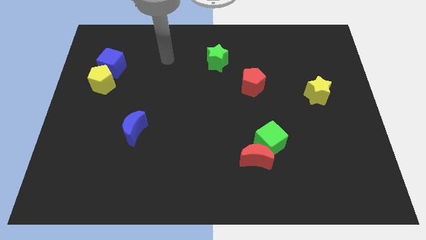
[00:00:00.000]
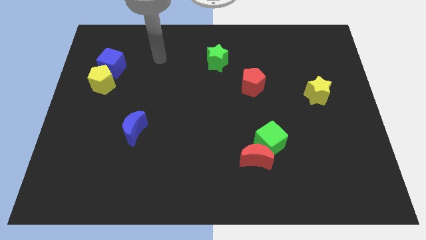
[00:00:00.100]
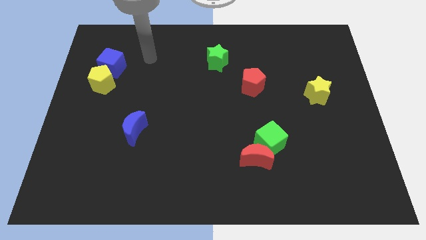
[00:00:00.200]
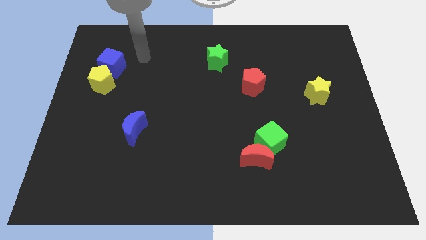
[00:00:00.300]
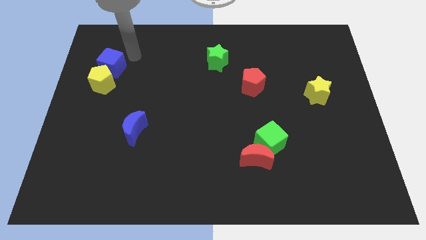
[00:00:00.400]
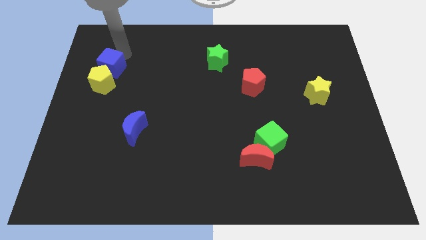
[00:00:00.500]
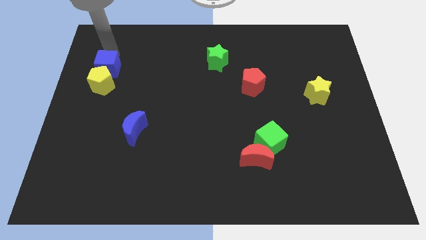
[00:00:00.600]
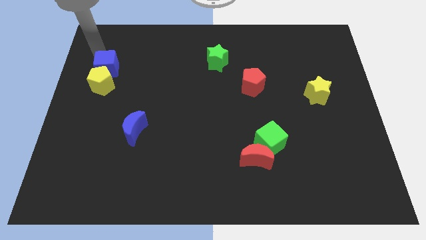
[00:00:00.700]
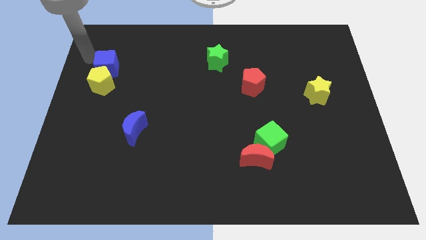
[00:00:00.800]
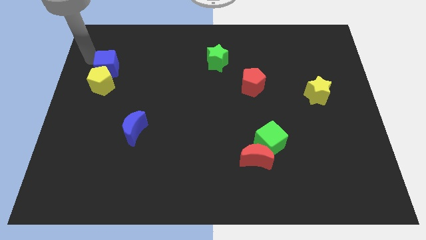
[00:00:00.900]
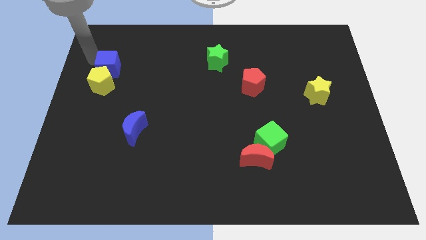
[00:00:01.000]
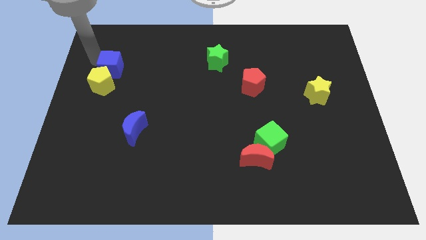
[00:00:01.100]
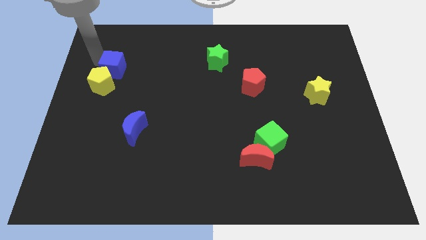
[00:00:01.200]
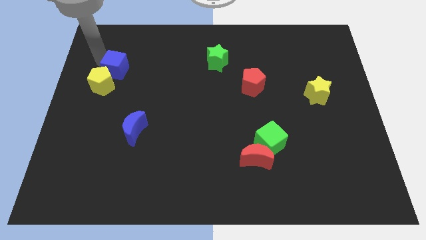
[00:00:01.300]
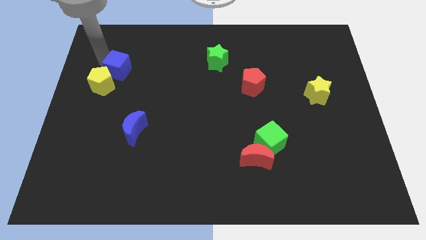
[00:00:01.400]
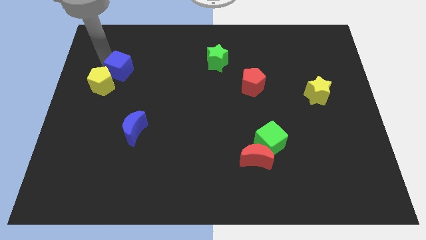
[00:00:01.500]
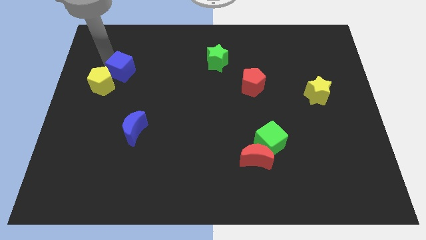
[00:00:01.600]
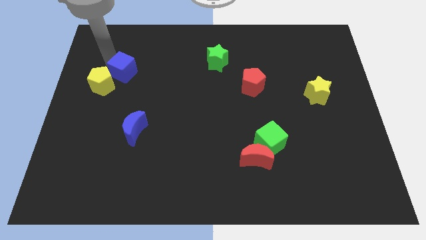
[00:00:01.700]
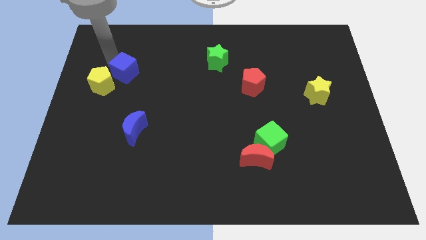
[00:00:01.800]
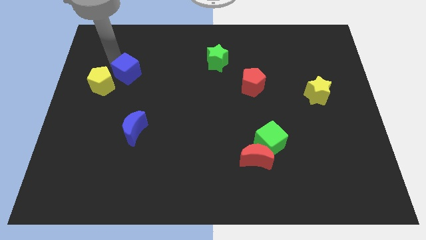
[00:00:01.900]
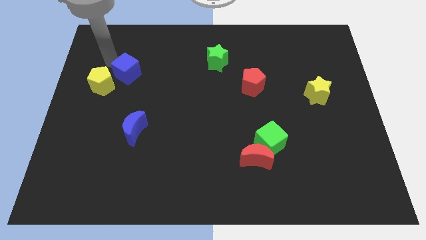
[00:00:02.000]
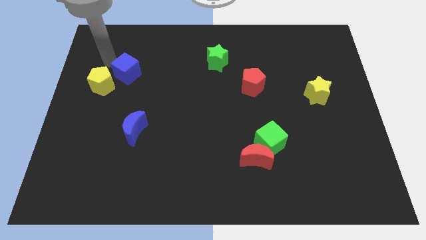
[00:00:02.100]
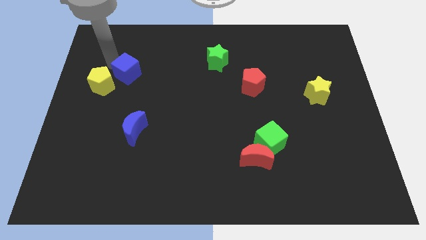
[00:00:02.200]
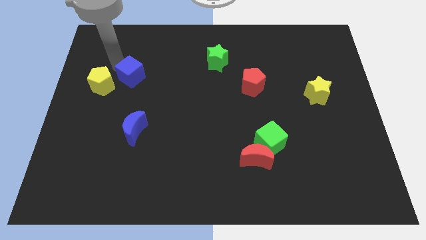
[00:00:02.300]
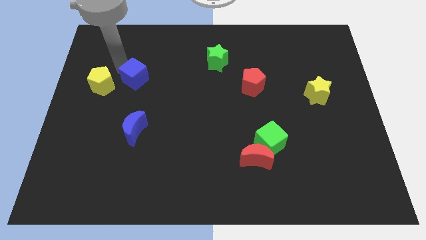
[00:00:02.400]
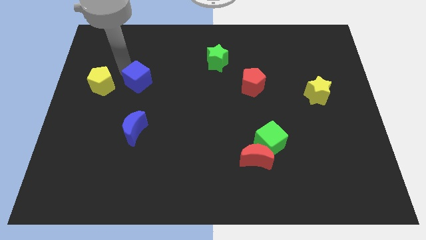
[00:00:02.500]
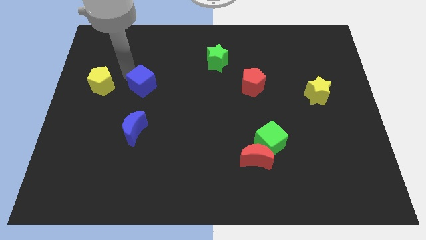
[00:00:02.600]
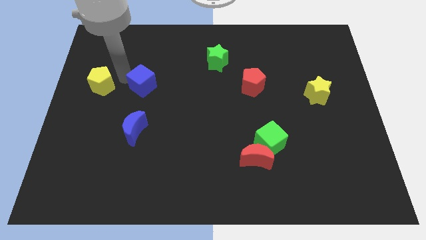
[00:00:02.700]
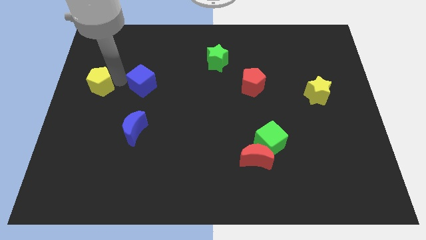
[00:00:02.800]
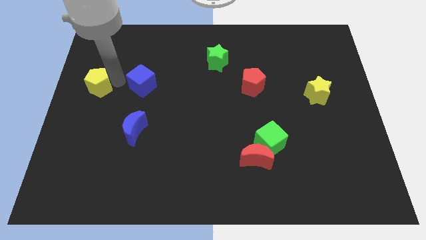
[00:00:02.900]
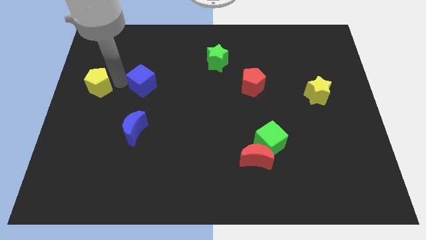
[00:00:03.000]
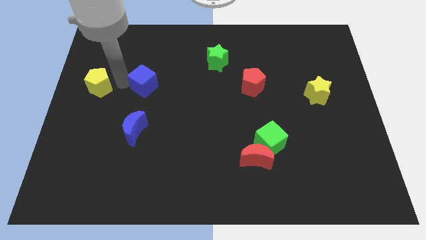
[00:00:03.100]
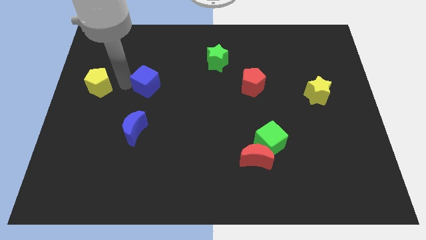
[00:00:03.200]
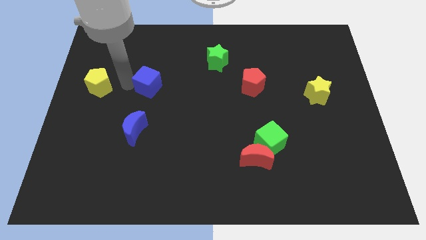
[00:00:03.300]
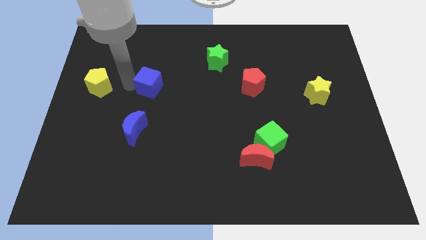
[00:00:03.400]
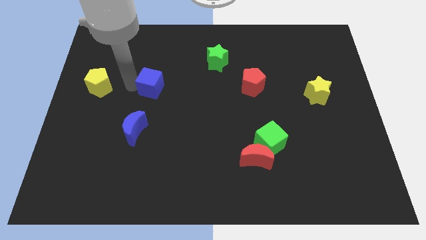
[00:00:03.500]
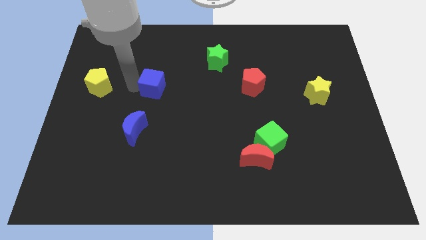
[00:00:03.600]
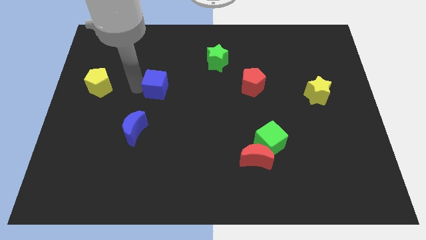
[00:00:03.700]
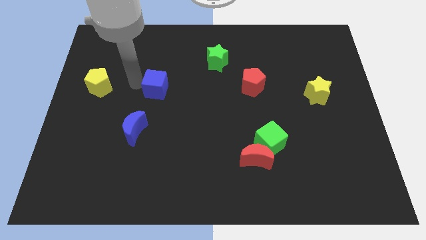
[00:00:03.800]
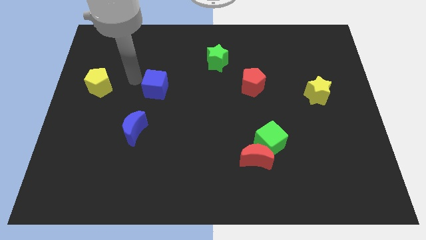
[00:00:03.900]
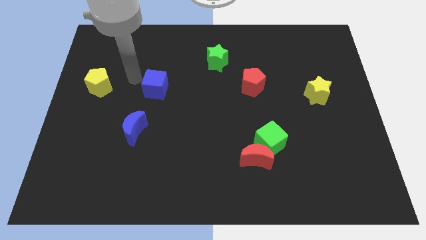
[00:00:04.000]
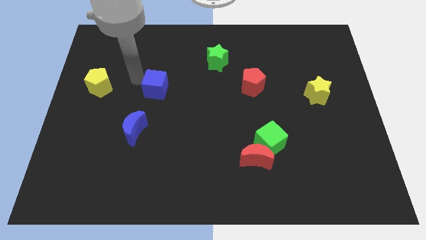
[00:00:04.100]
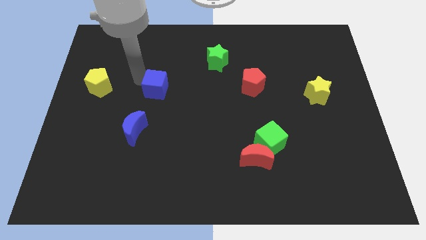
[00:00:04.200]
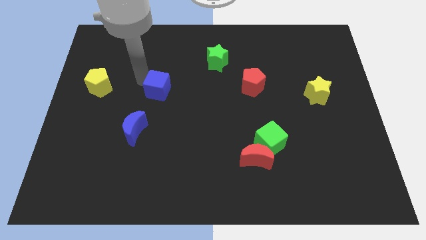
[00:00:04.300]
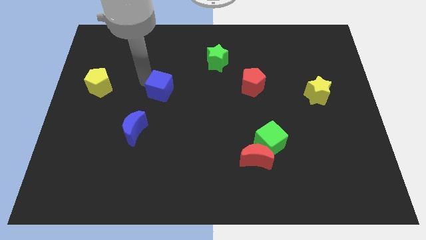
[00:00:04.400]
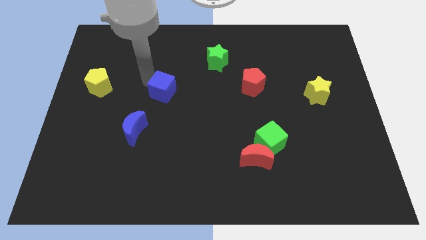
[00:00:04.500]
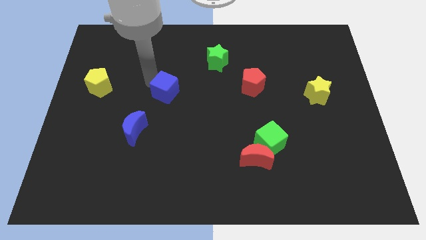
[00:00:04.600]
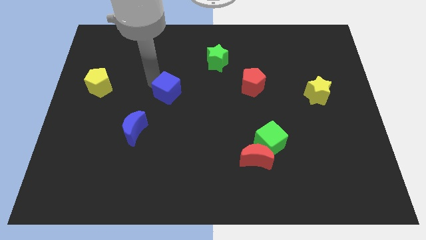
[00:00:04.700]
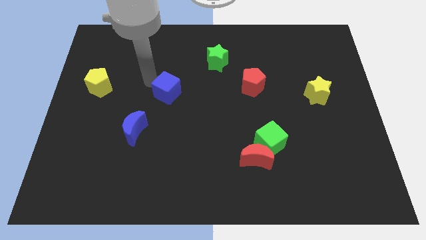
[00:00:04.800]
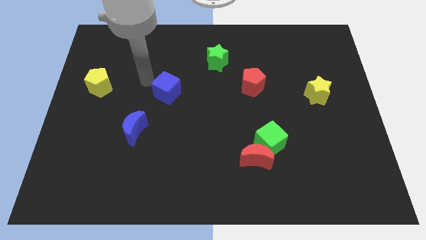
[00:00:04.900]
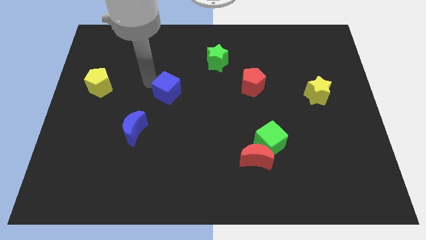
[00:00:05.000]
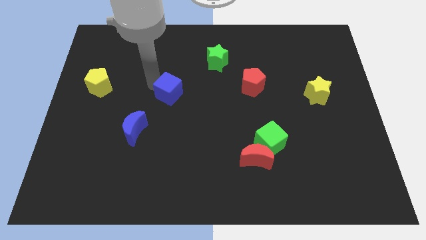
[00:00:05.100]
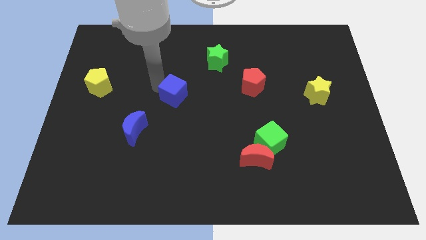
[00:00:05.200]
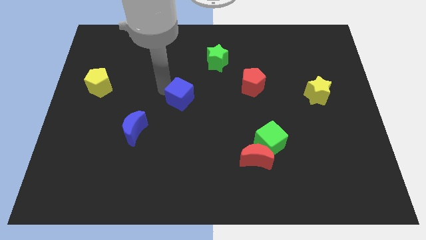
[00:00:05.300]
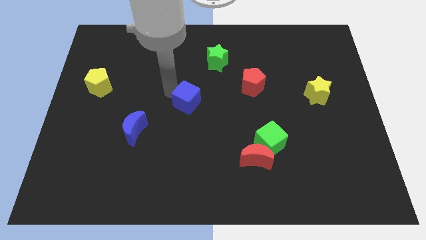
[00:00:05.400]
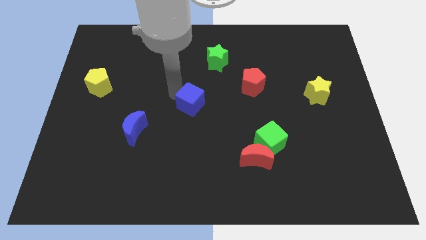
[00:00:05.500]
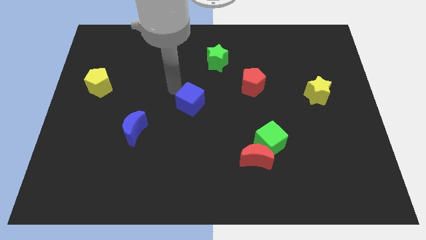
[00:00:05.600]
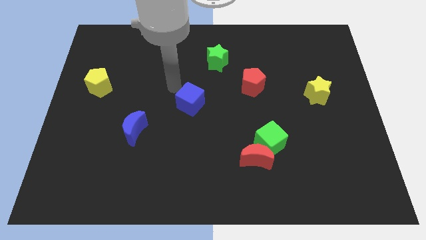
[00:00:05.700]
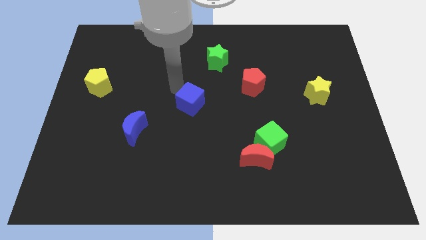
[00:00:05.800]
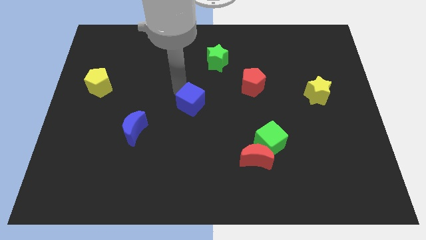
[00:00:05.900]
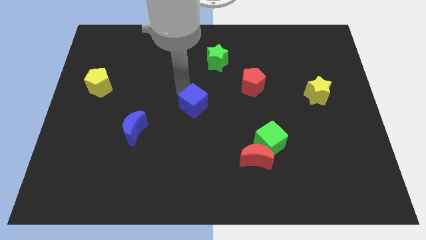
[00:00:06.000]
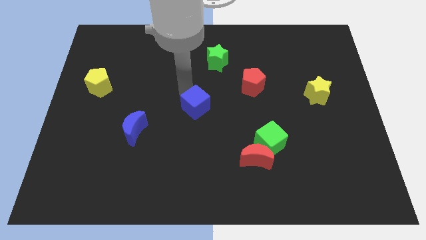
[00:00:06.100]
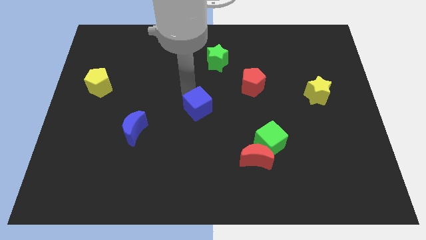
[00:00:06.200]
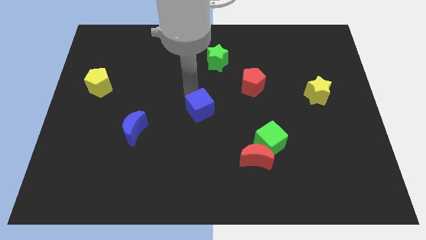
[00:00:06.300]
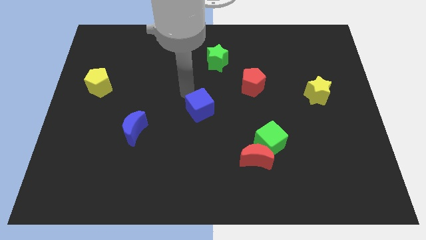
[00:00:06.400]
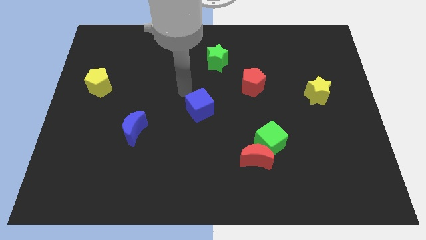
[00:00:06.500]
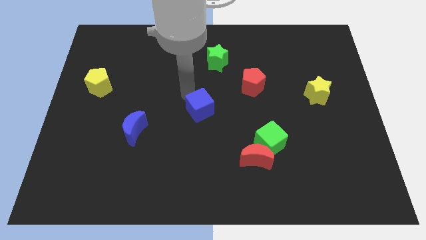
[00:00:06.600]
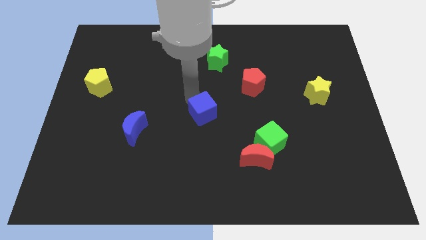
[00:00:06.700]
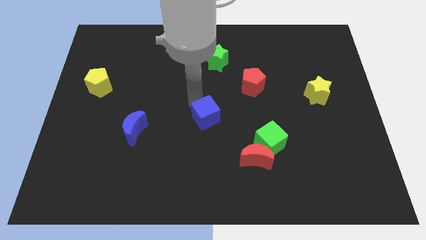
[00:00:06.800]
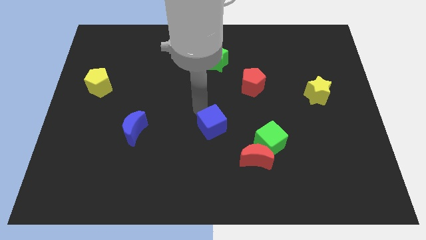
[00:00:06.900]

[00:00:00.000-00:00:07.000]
move the blue cube diagonally up and to the left of the red moon
